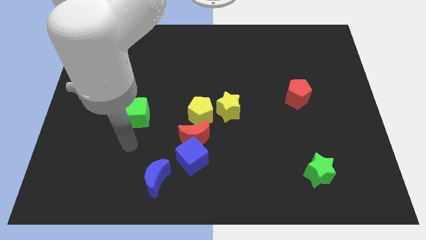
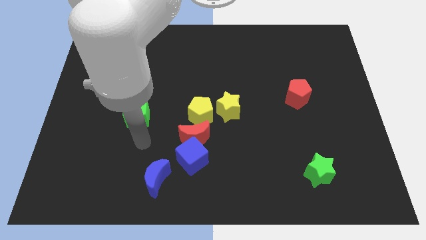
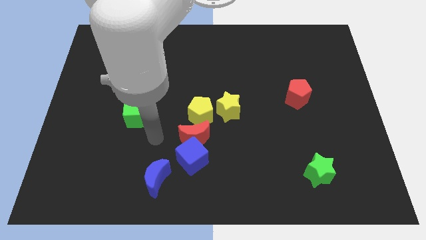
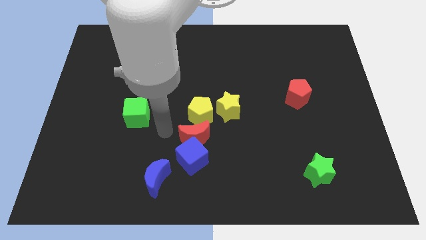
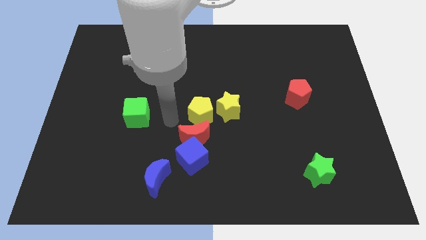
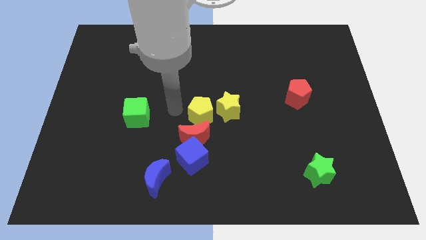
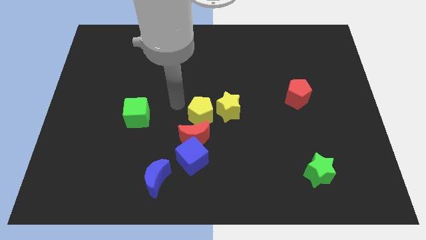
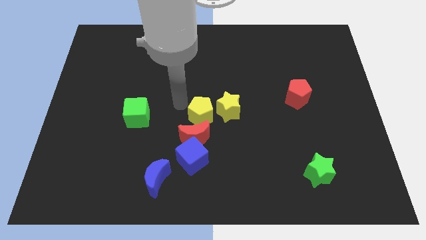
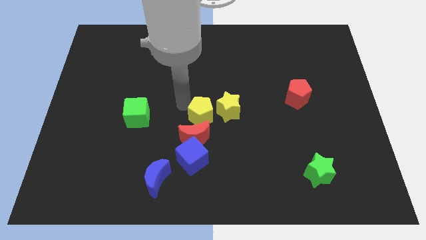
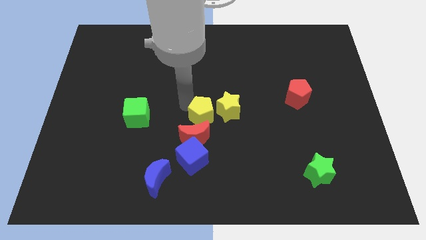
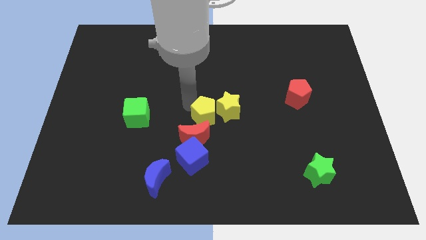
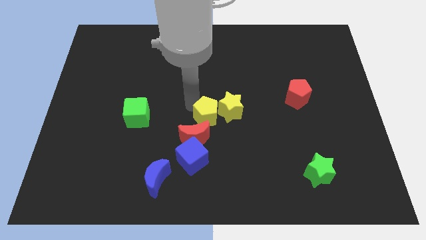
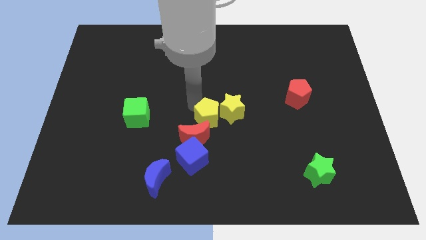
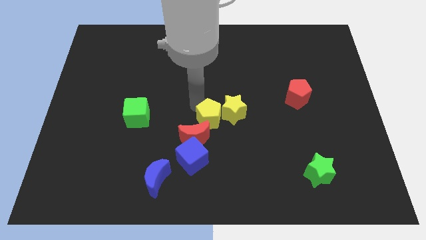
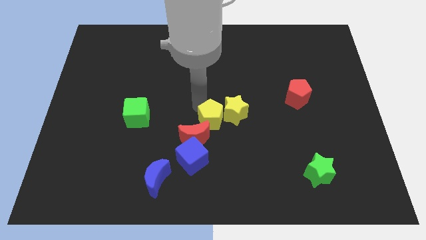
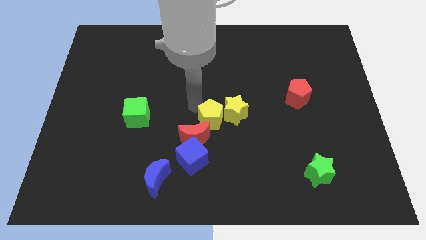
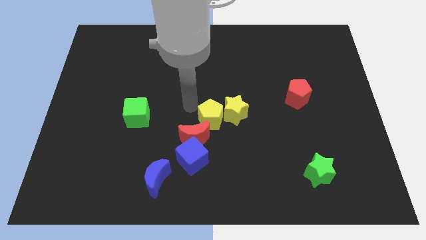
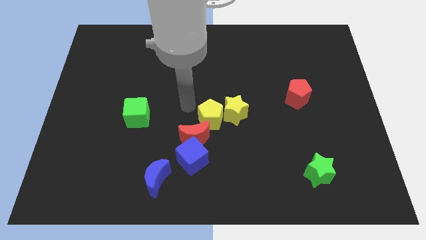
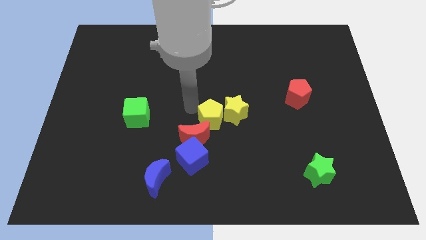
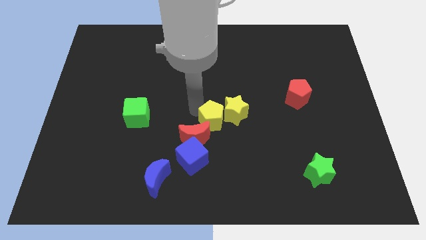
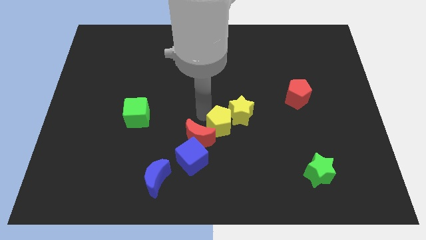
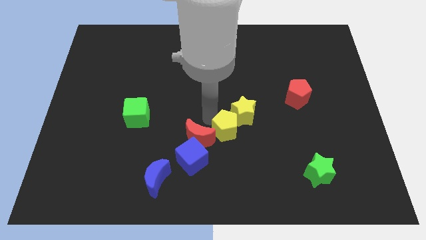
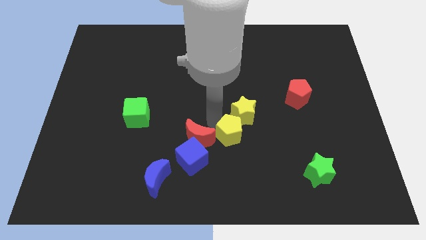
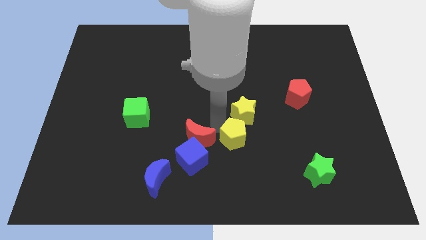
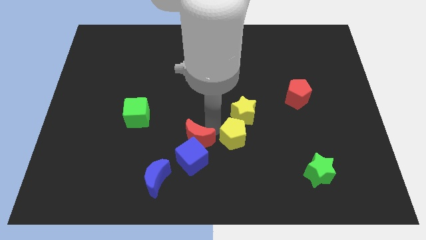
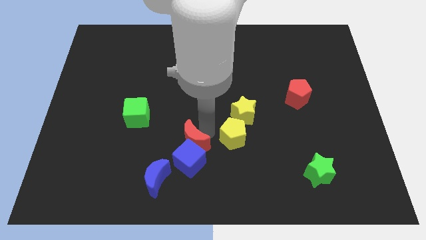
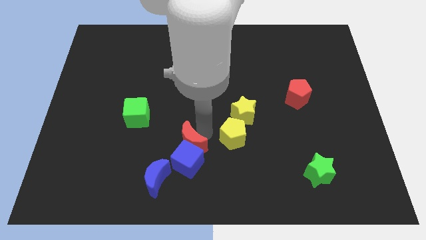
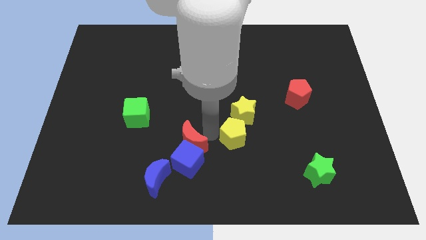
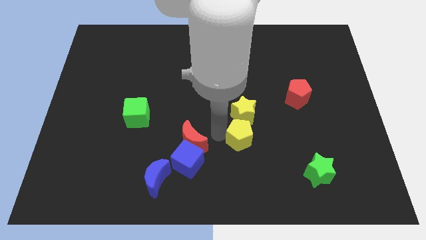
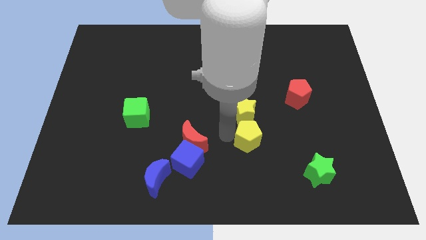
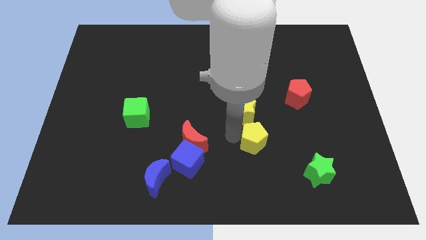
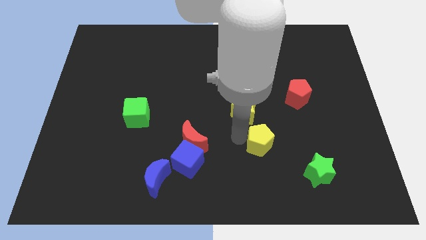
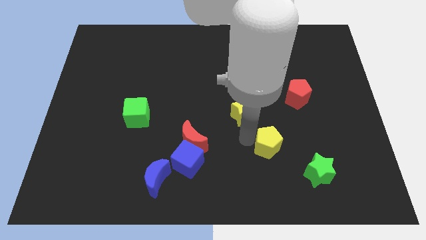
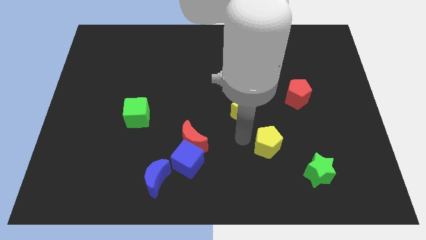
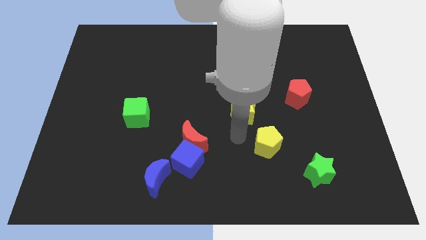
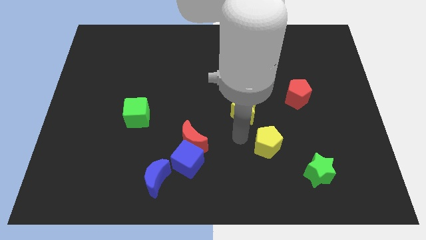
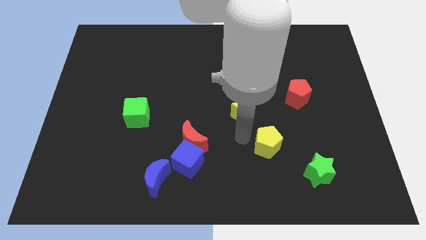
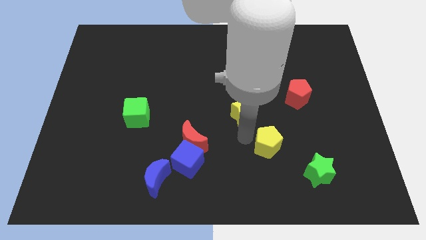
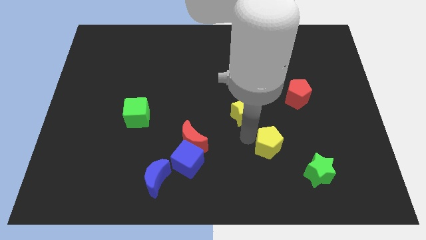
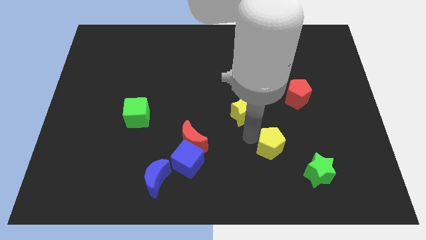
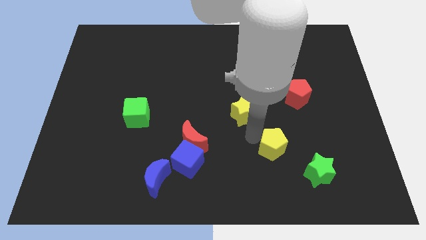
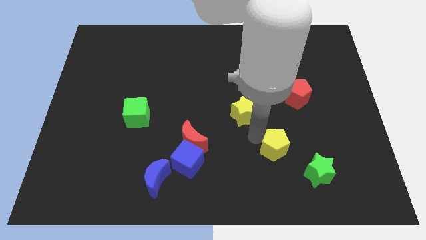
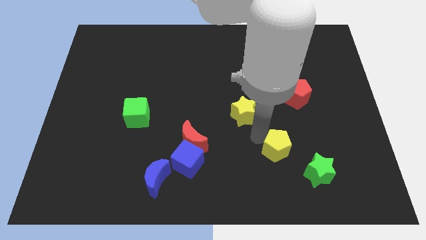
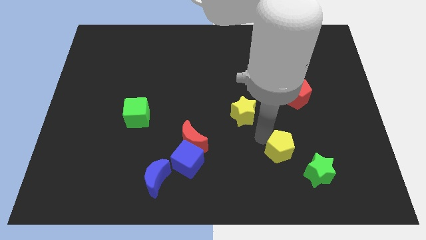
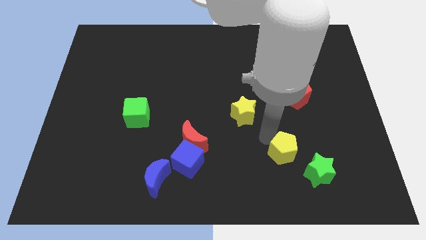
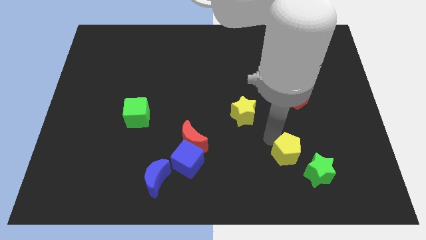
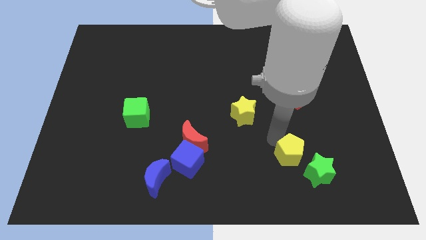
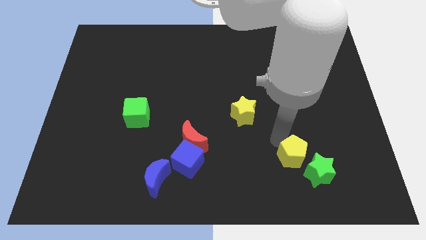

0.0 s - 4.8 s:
slide the yellow pentagon to the green star

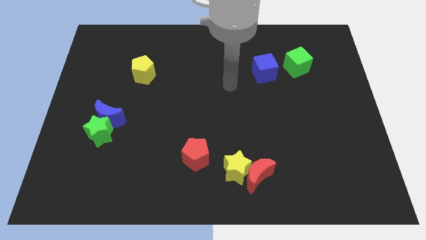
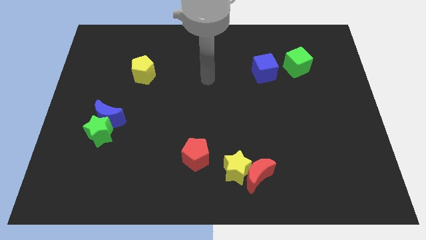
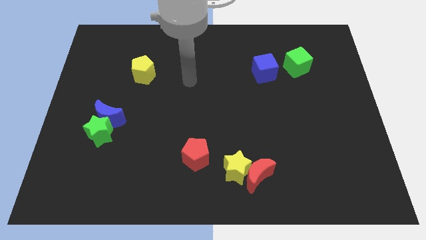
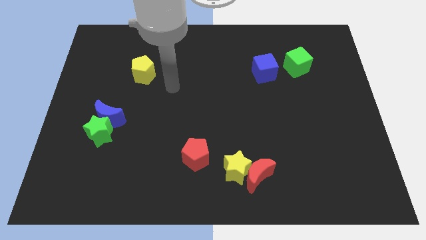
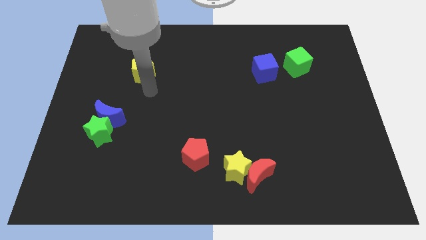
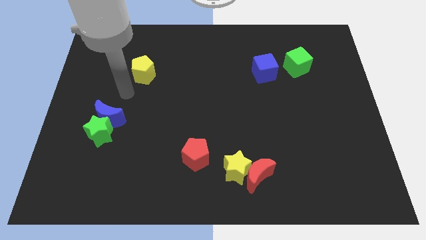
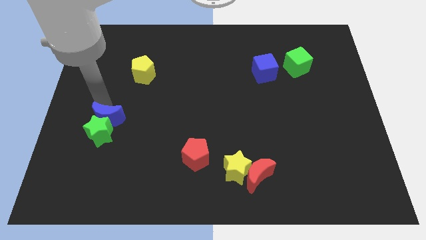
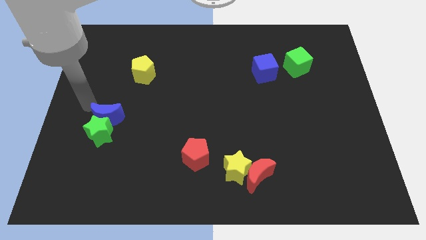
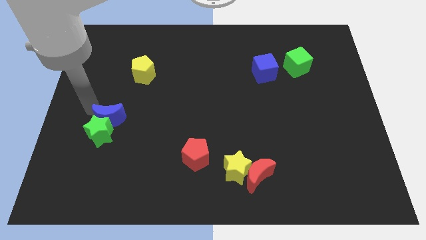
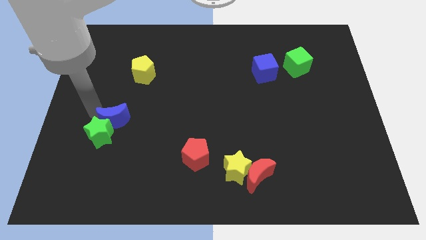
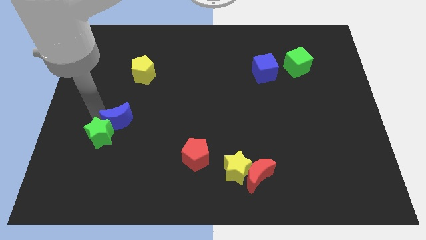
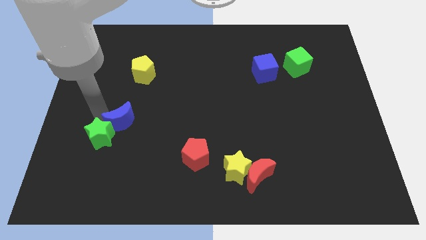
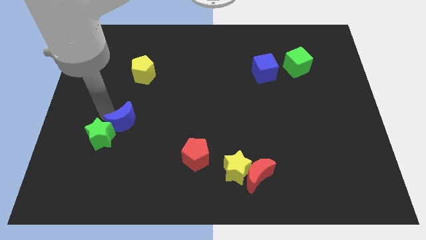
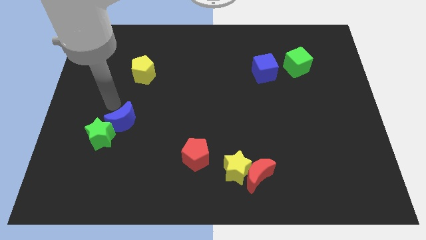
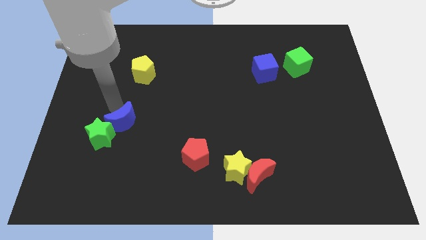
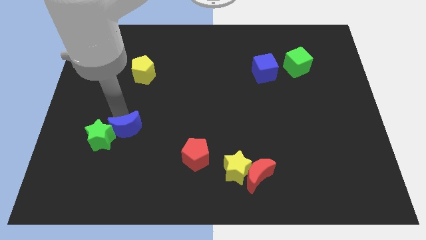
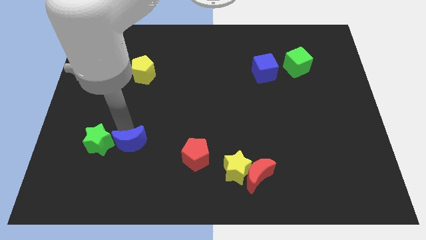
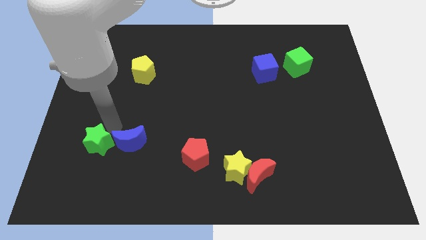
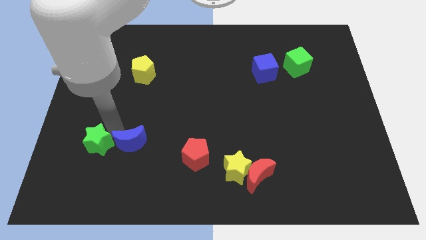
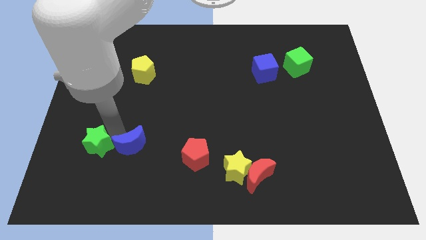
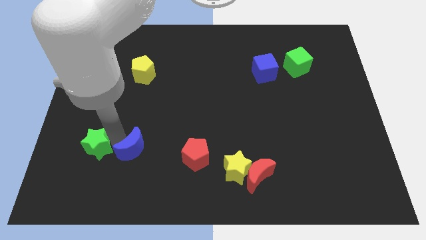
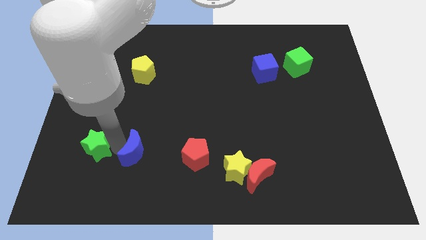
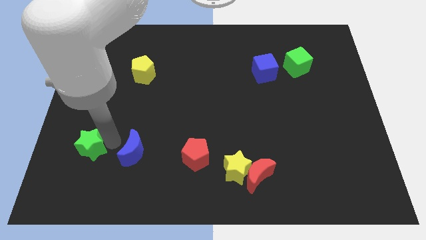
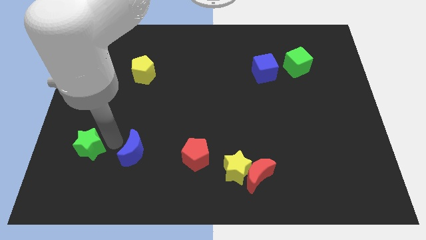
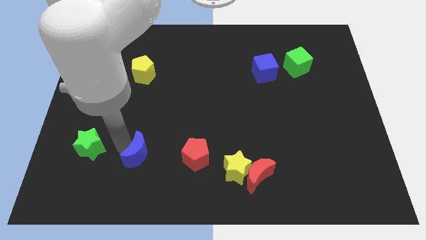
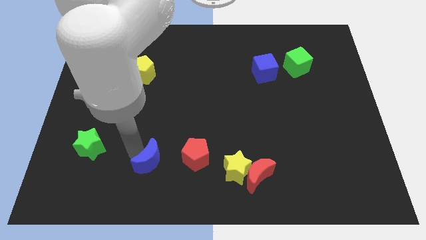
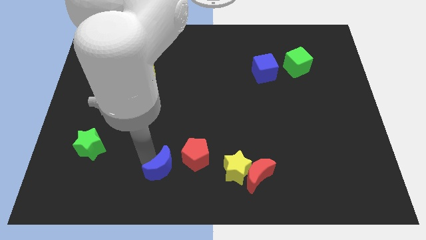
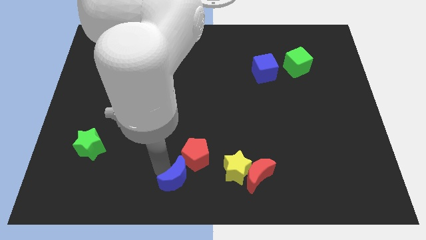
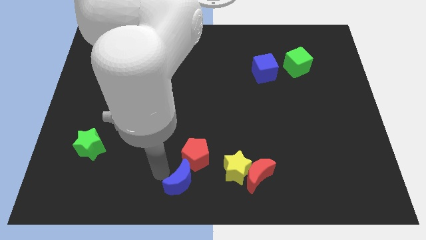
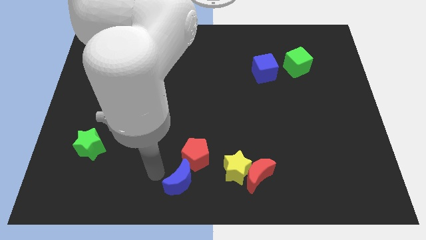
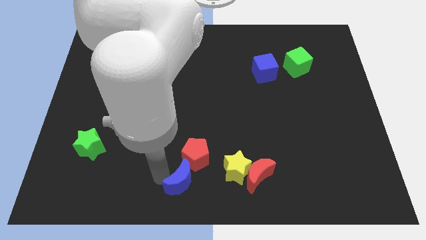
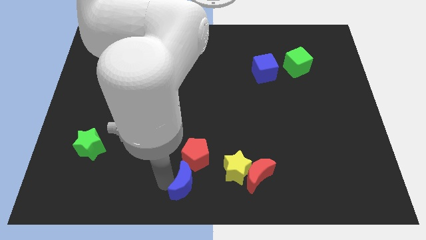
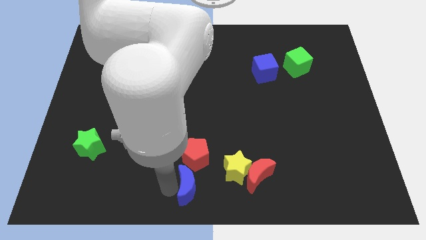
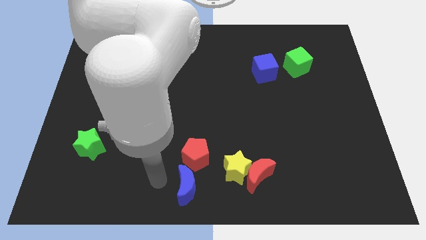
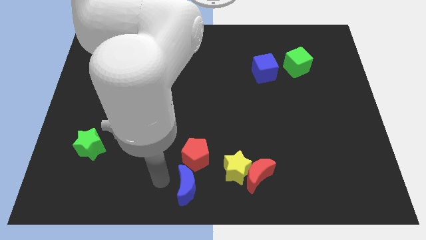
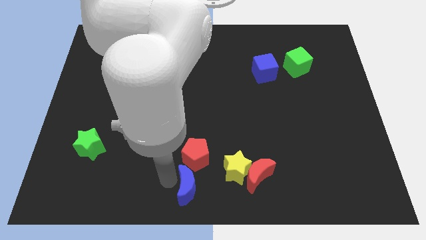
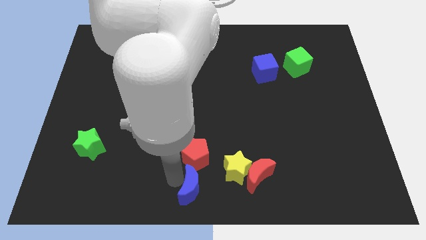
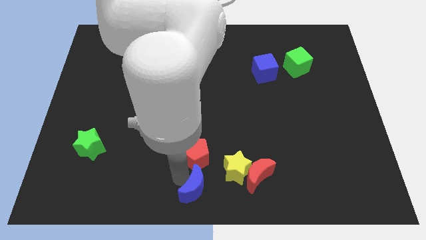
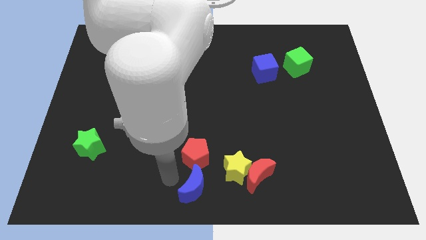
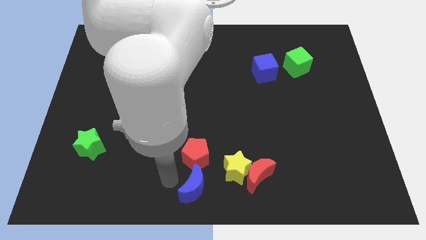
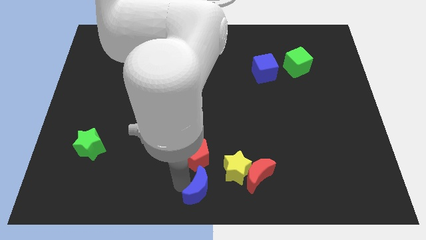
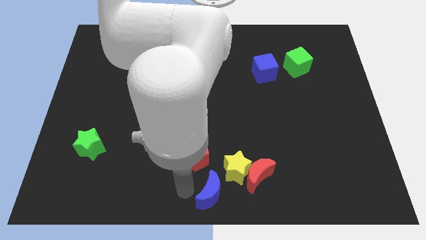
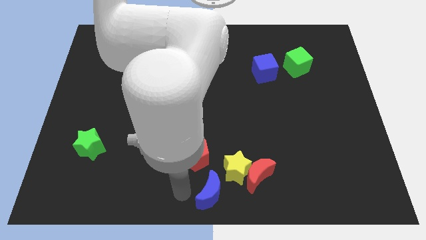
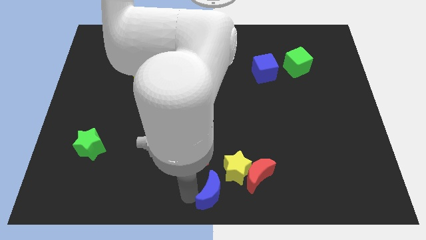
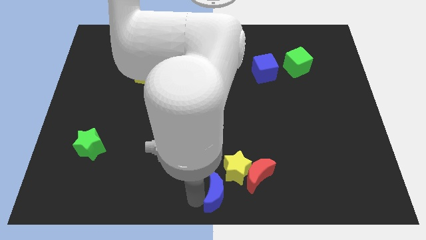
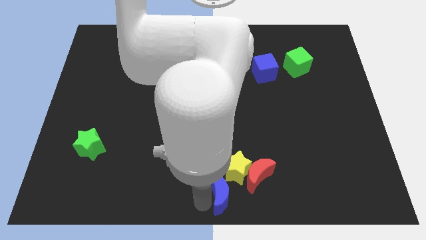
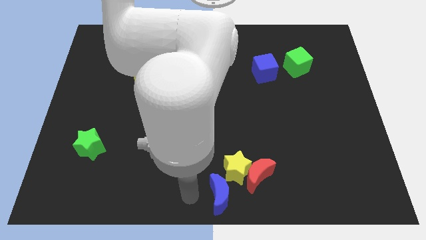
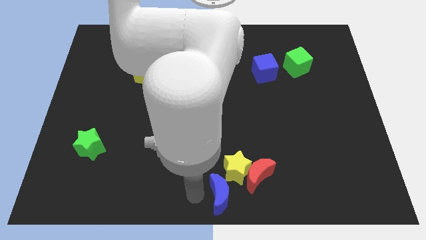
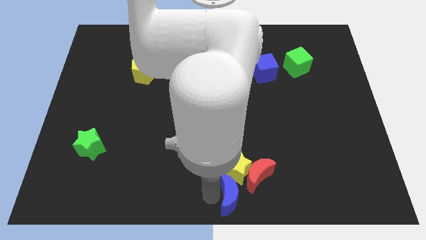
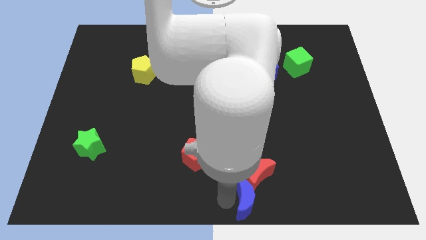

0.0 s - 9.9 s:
put the blue moon to the red moon
